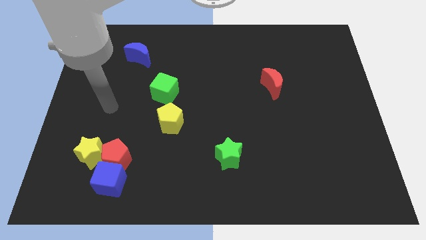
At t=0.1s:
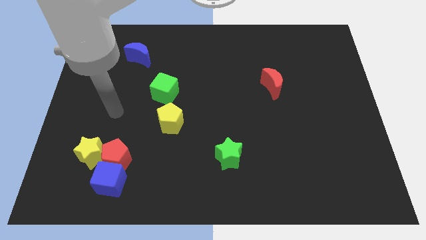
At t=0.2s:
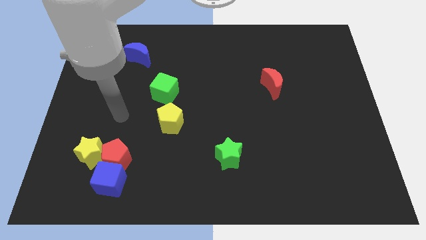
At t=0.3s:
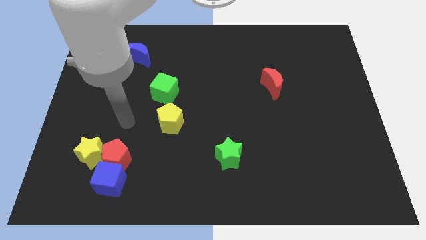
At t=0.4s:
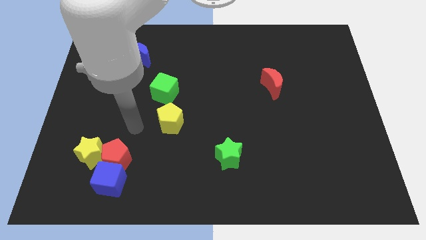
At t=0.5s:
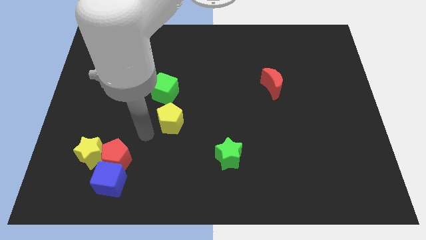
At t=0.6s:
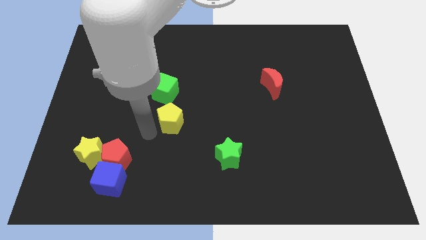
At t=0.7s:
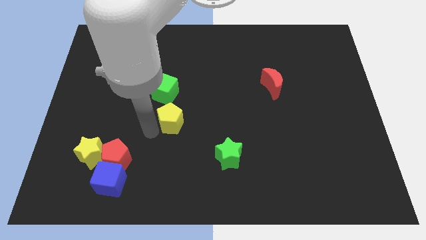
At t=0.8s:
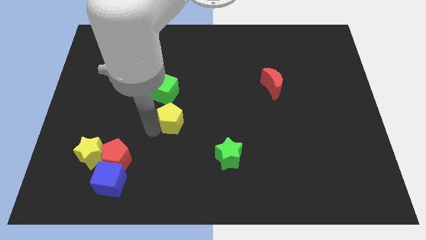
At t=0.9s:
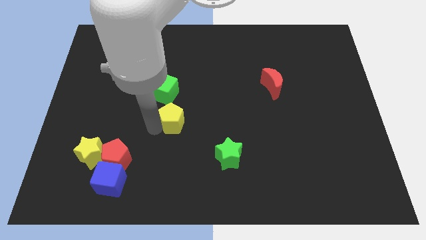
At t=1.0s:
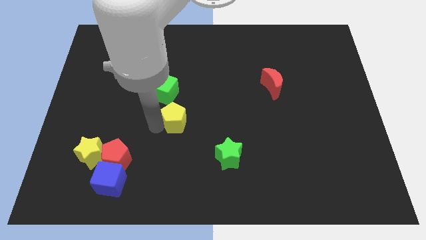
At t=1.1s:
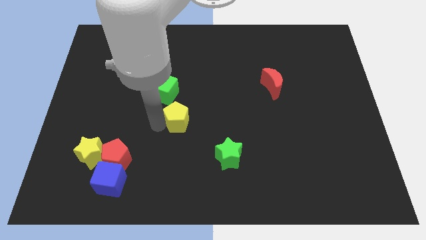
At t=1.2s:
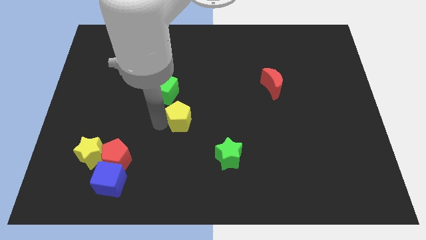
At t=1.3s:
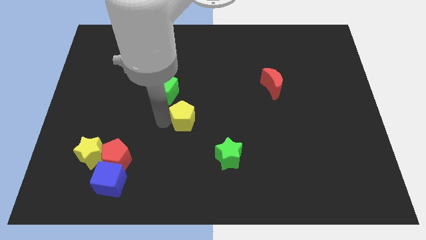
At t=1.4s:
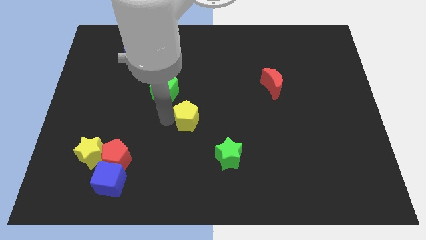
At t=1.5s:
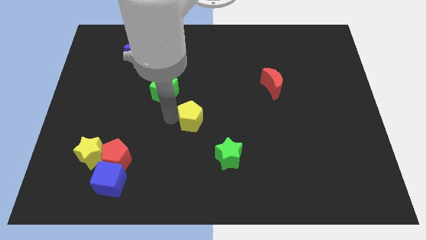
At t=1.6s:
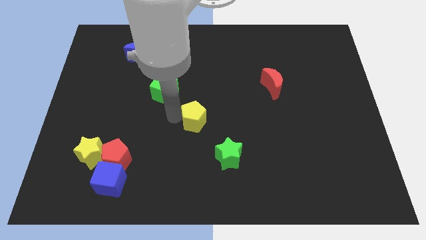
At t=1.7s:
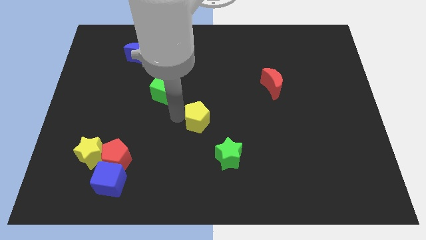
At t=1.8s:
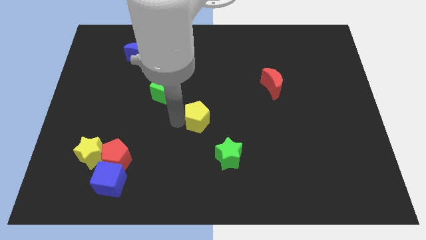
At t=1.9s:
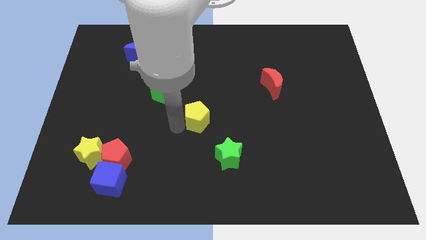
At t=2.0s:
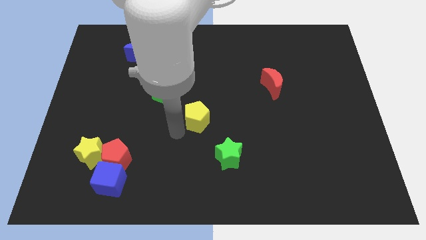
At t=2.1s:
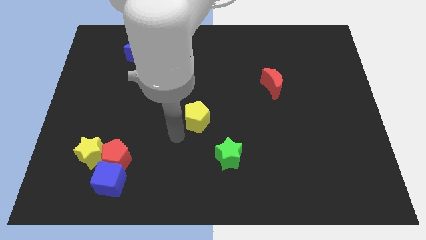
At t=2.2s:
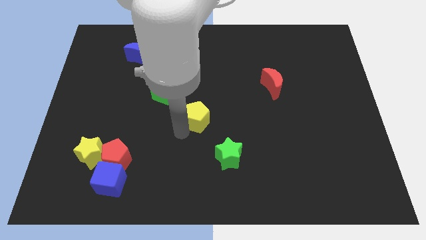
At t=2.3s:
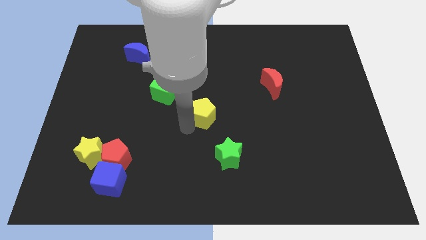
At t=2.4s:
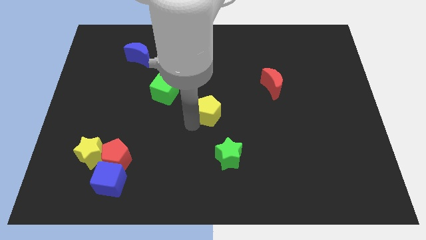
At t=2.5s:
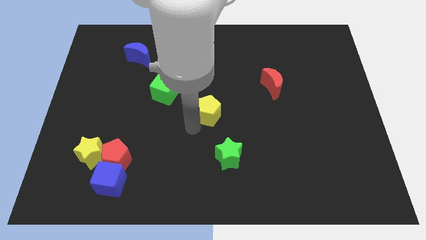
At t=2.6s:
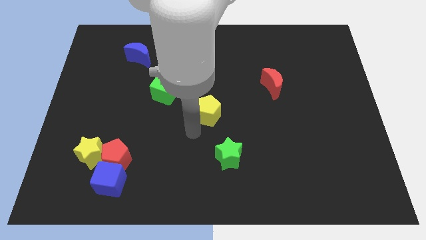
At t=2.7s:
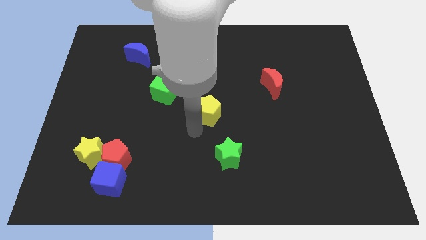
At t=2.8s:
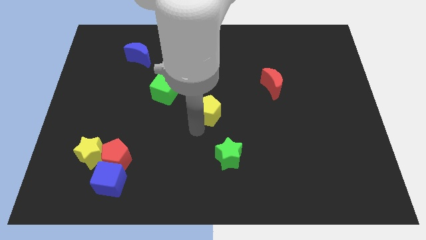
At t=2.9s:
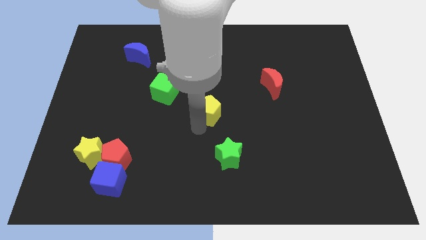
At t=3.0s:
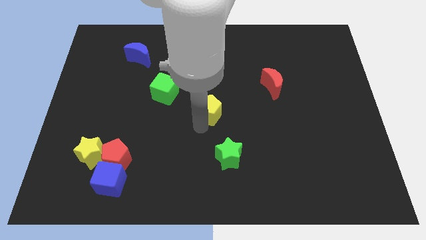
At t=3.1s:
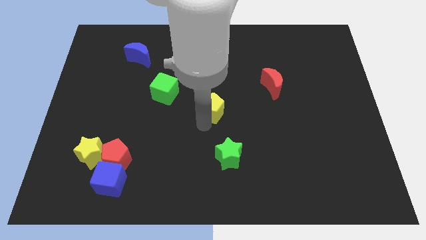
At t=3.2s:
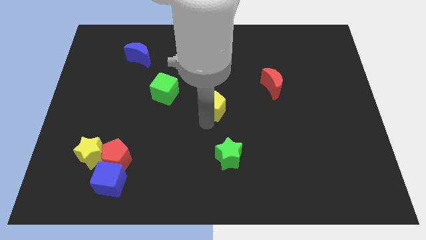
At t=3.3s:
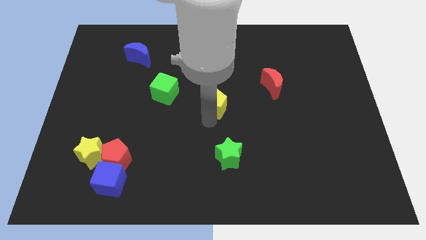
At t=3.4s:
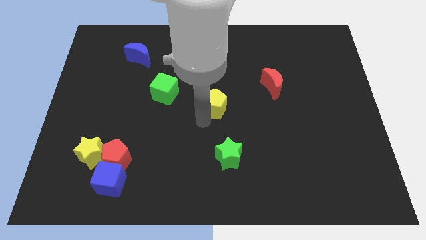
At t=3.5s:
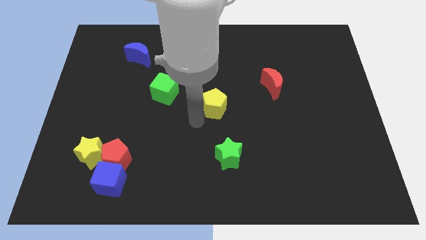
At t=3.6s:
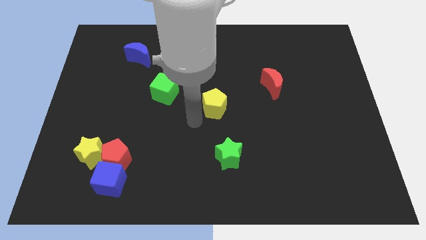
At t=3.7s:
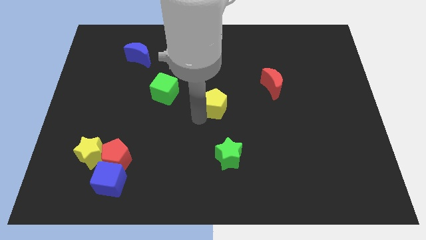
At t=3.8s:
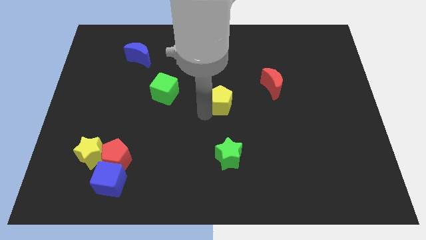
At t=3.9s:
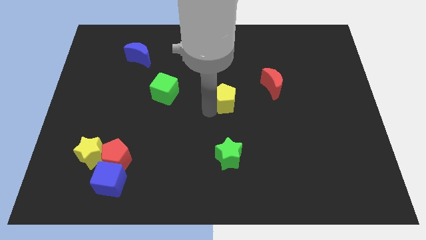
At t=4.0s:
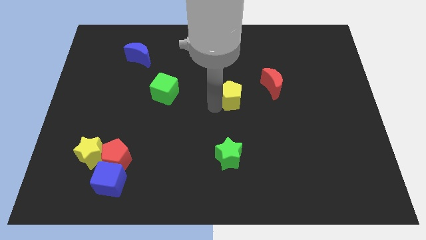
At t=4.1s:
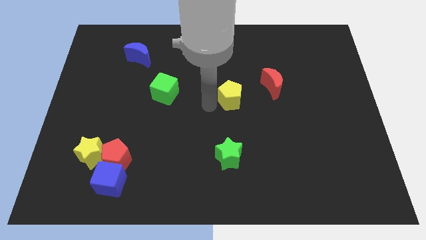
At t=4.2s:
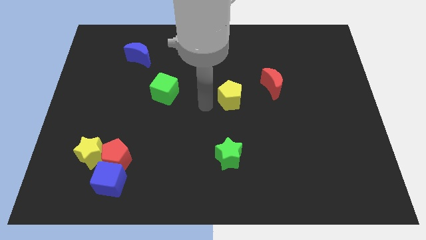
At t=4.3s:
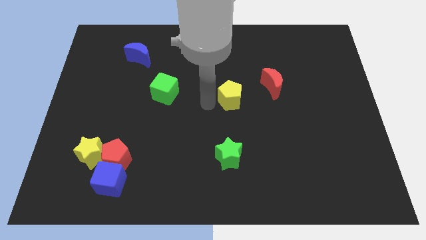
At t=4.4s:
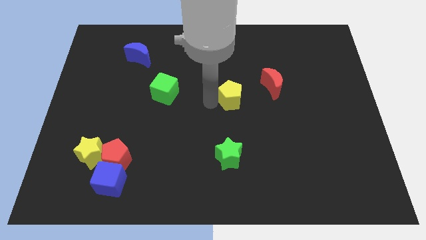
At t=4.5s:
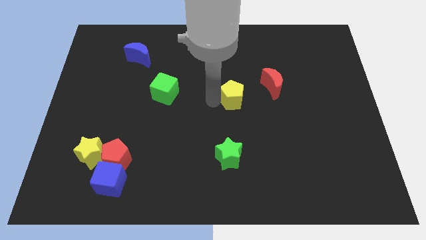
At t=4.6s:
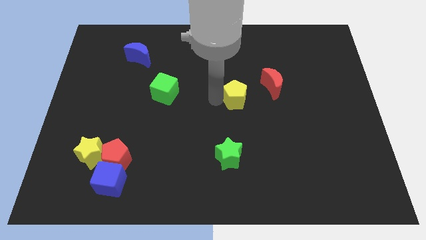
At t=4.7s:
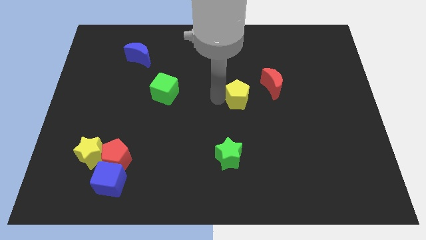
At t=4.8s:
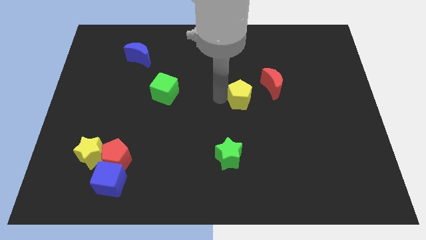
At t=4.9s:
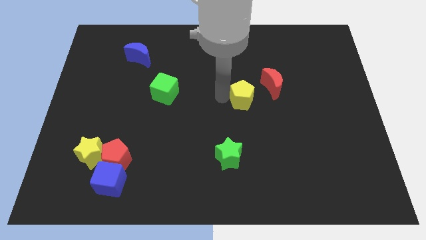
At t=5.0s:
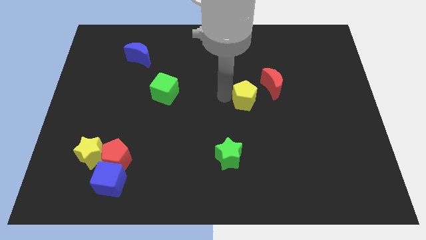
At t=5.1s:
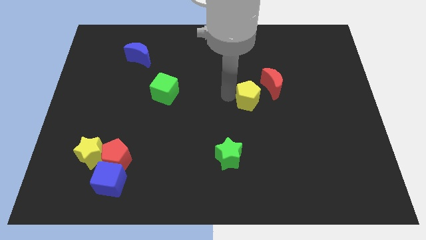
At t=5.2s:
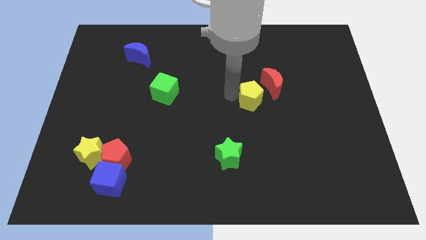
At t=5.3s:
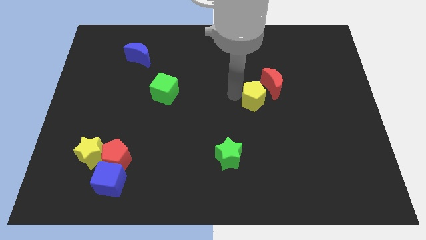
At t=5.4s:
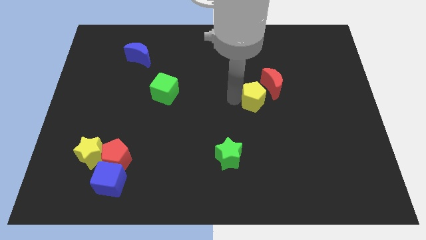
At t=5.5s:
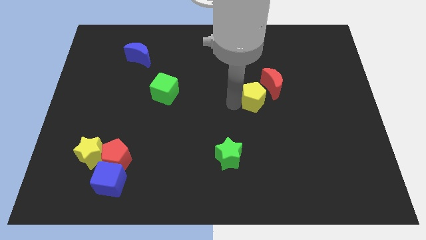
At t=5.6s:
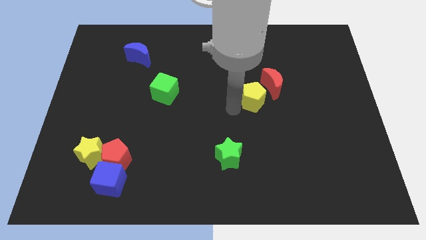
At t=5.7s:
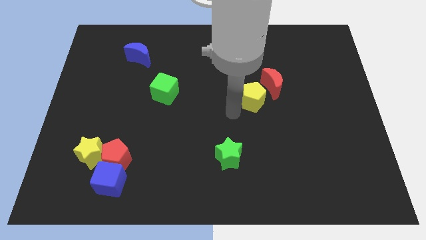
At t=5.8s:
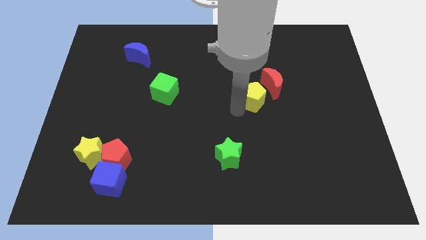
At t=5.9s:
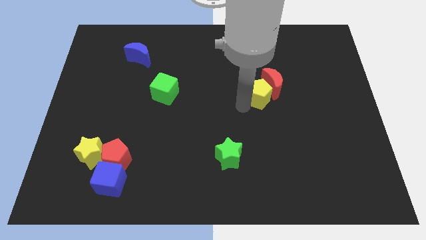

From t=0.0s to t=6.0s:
push the yellow pentagon close to the red moon

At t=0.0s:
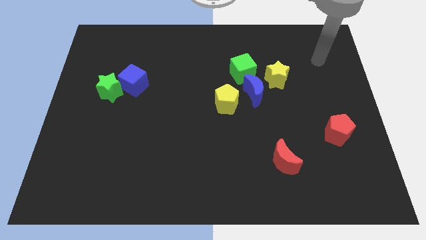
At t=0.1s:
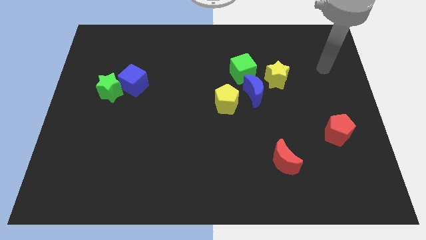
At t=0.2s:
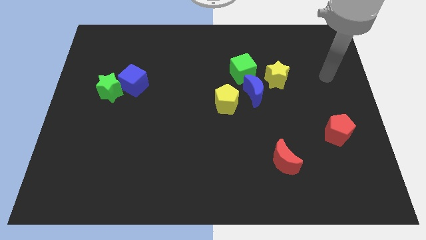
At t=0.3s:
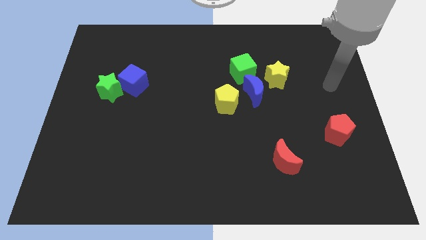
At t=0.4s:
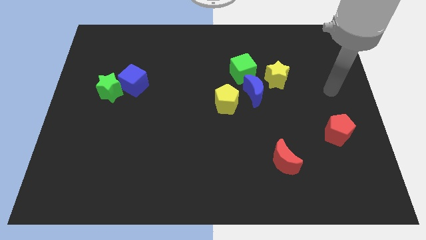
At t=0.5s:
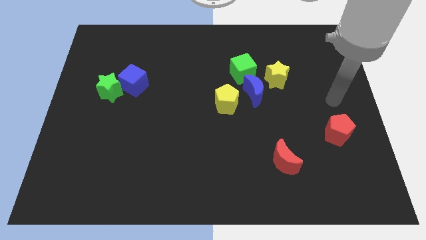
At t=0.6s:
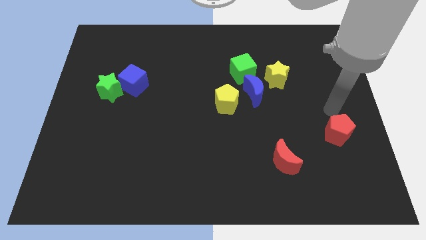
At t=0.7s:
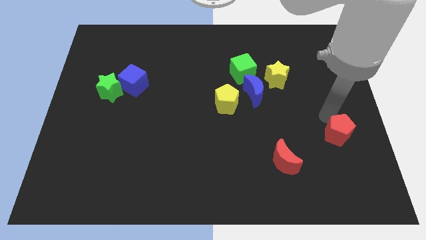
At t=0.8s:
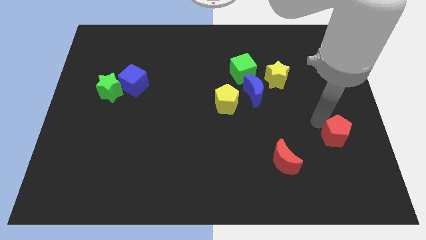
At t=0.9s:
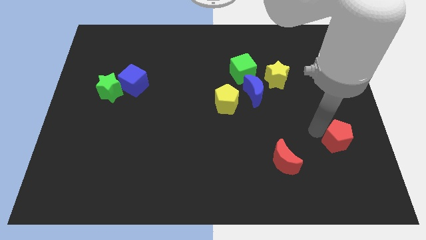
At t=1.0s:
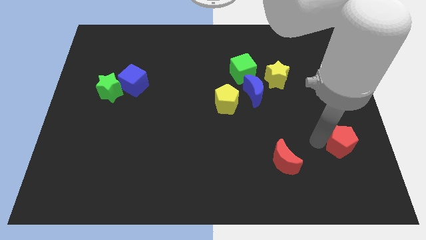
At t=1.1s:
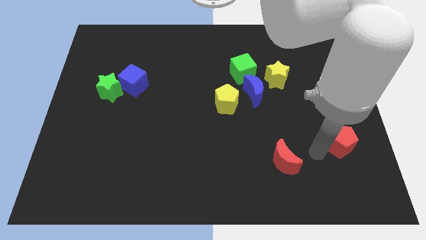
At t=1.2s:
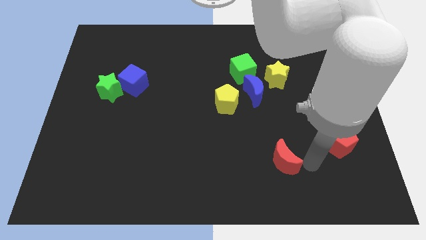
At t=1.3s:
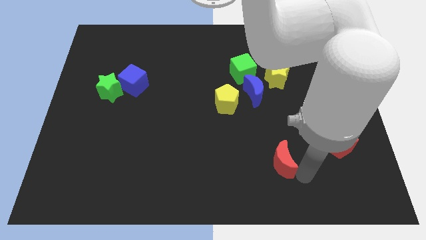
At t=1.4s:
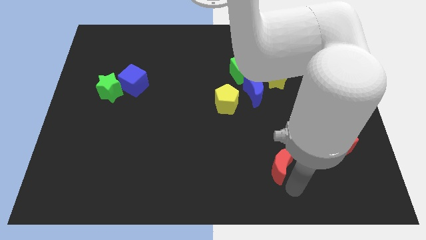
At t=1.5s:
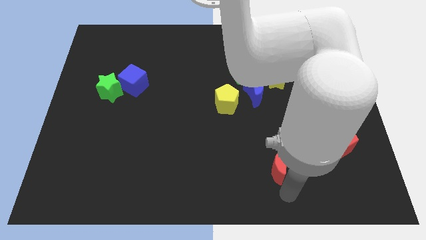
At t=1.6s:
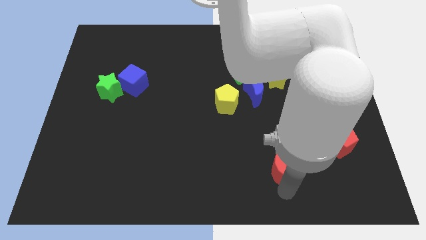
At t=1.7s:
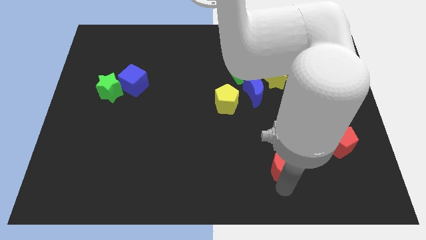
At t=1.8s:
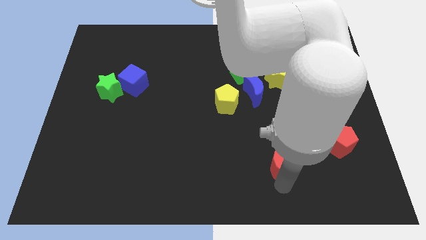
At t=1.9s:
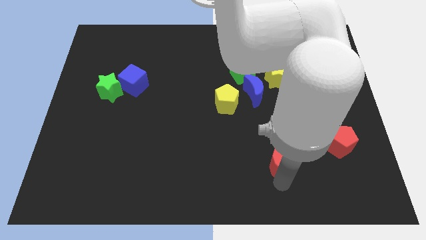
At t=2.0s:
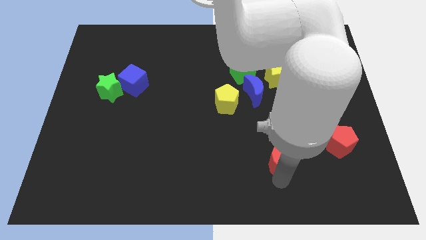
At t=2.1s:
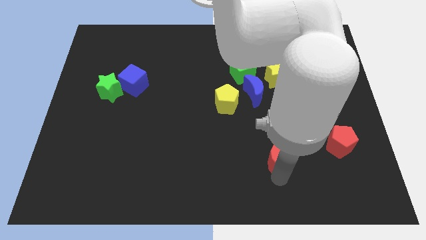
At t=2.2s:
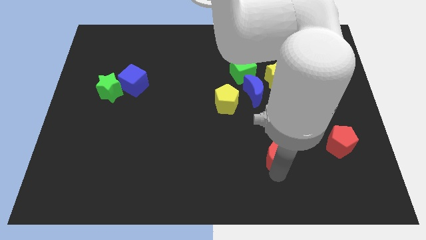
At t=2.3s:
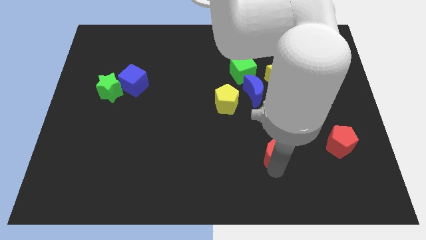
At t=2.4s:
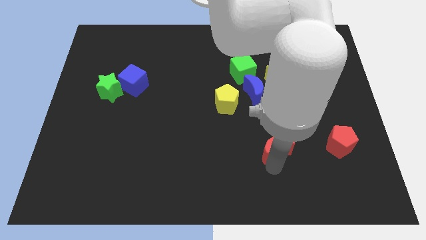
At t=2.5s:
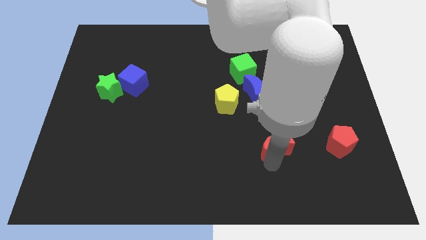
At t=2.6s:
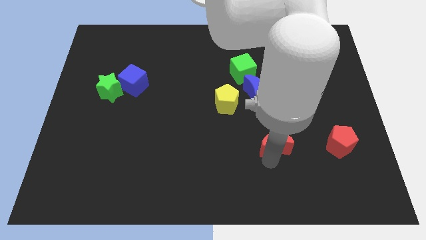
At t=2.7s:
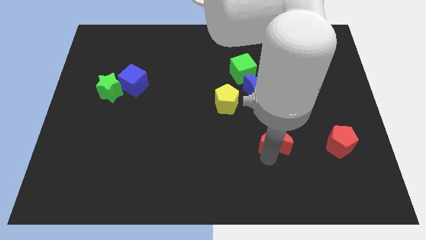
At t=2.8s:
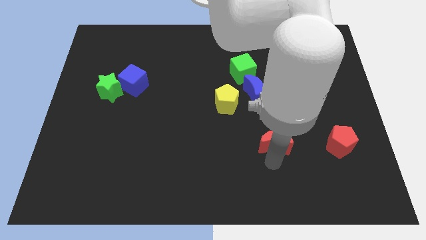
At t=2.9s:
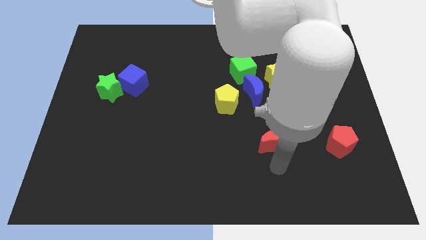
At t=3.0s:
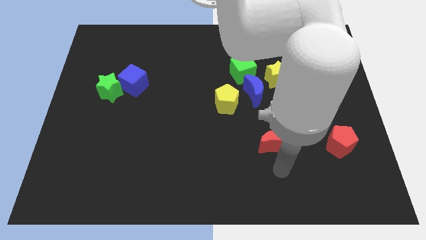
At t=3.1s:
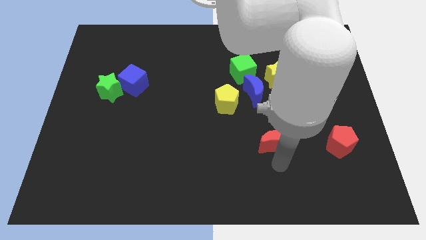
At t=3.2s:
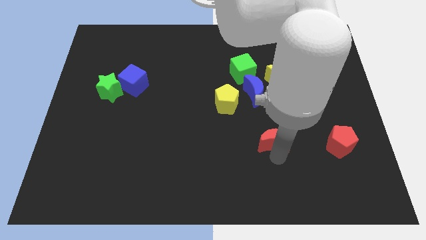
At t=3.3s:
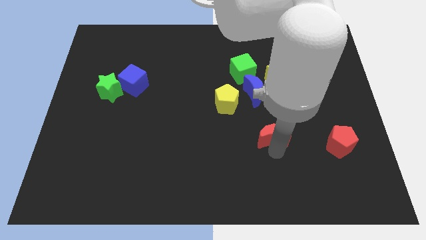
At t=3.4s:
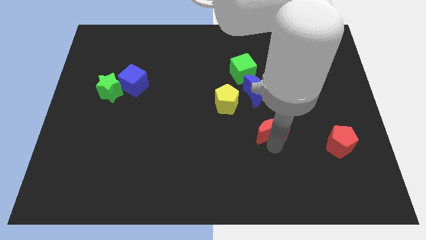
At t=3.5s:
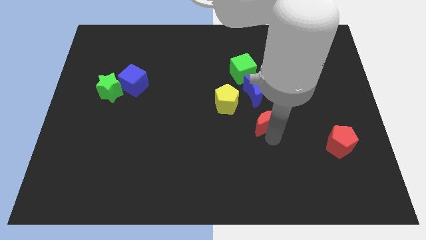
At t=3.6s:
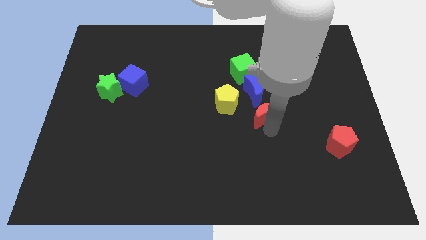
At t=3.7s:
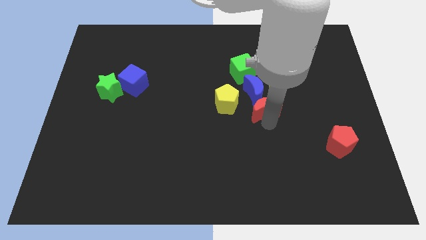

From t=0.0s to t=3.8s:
push the red moon close to the blue moon
